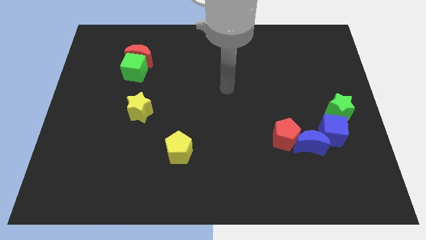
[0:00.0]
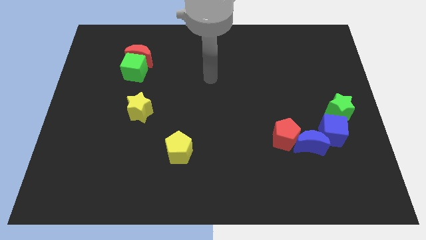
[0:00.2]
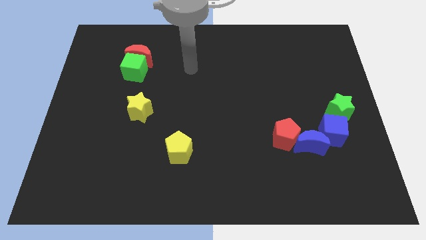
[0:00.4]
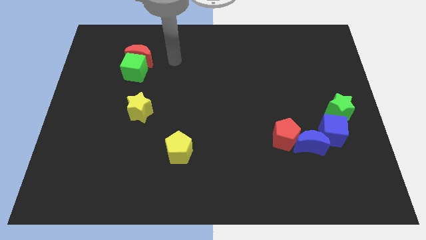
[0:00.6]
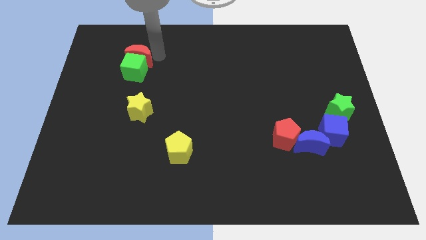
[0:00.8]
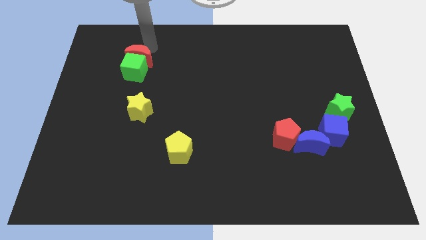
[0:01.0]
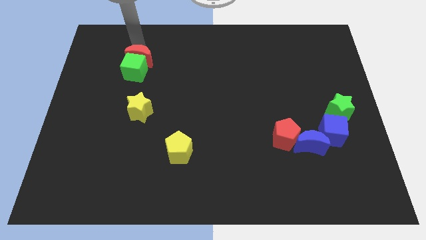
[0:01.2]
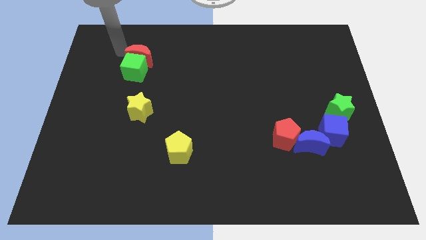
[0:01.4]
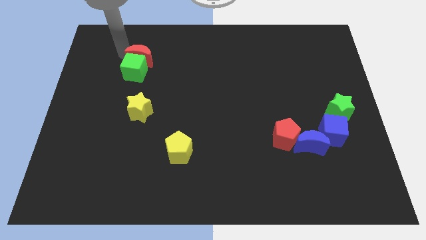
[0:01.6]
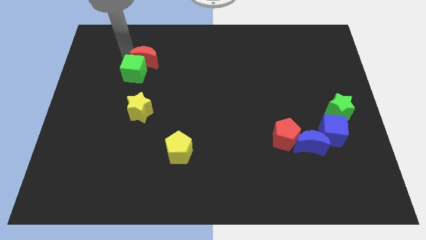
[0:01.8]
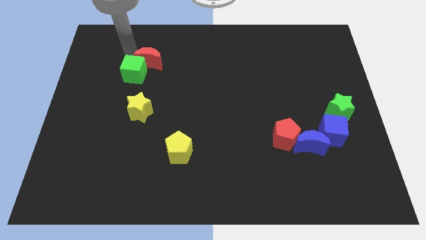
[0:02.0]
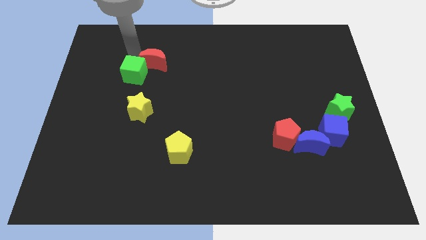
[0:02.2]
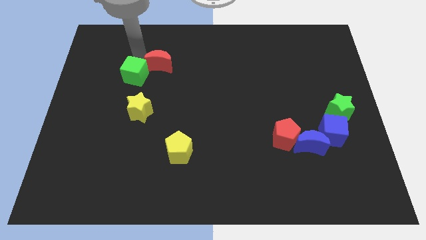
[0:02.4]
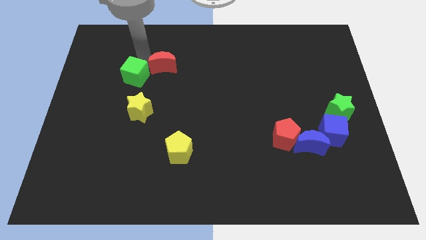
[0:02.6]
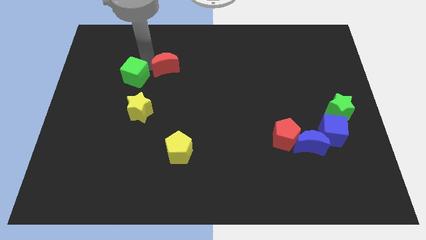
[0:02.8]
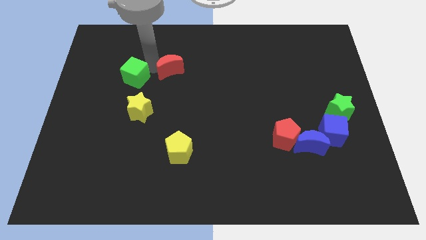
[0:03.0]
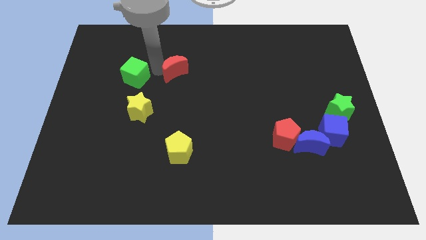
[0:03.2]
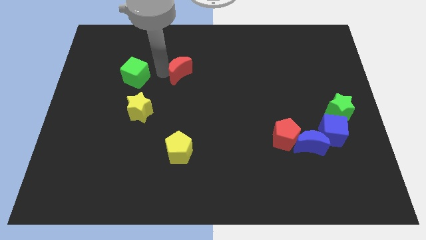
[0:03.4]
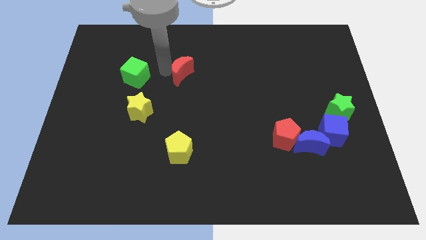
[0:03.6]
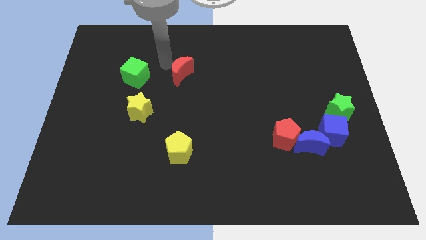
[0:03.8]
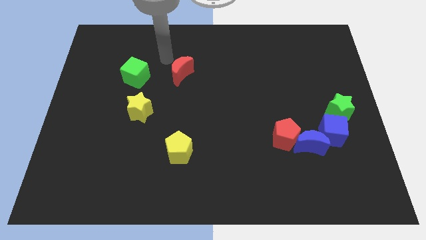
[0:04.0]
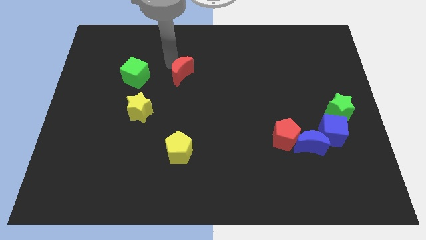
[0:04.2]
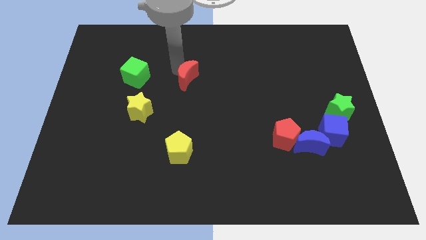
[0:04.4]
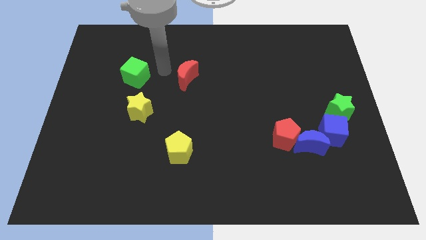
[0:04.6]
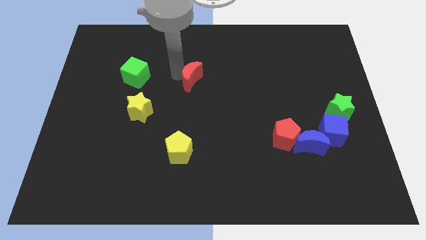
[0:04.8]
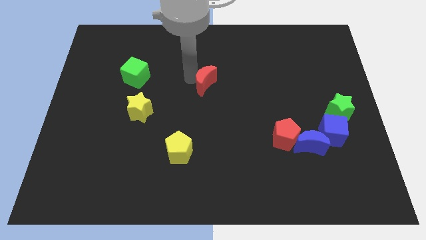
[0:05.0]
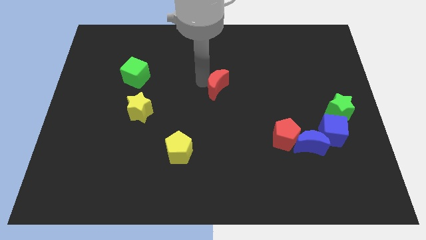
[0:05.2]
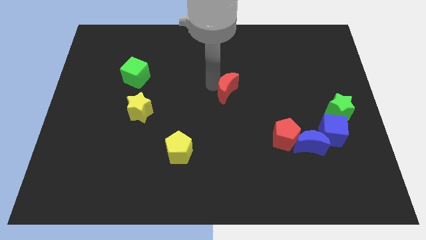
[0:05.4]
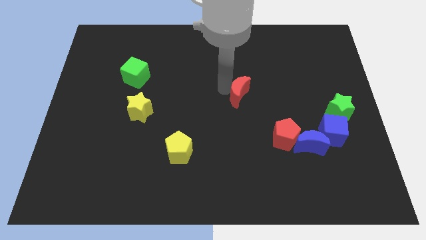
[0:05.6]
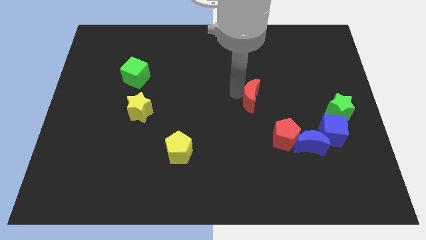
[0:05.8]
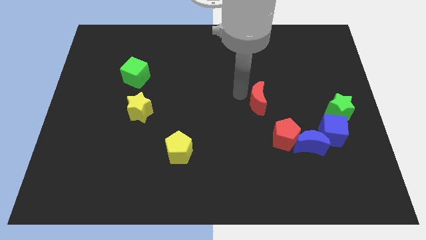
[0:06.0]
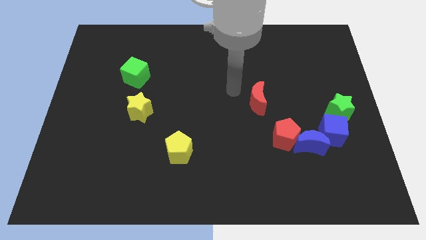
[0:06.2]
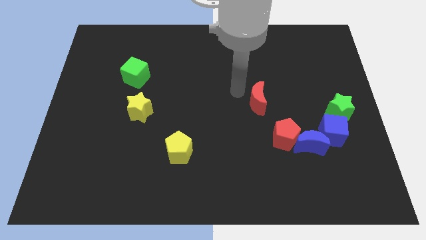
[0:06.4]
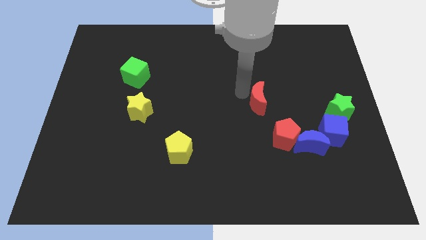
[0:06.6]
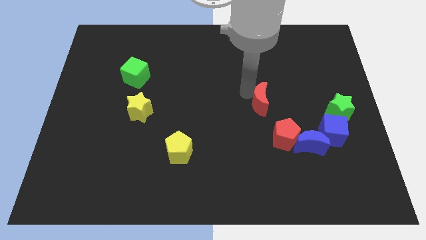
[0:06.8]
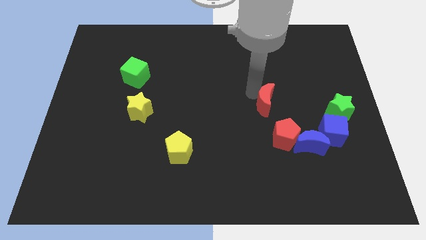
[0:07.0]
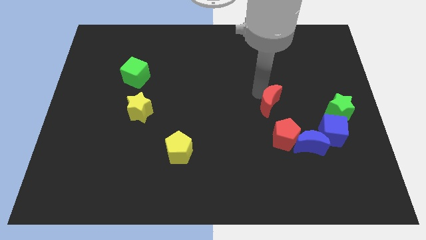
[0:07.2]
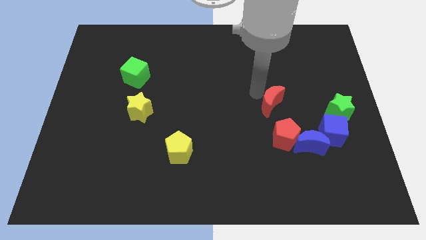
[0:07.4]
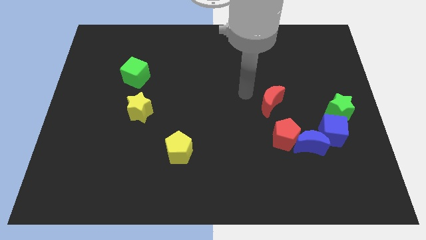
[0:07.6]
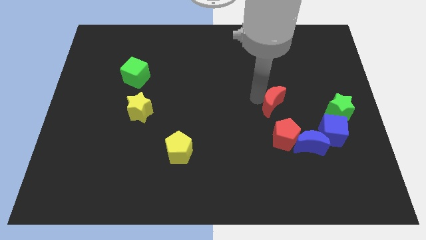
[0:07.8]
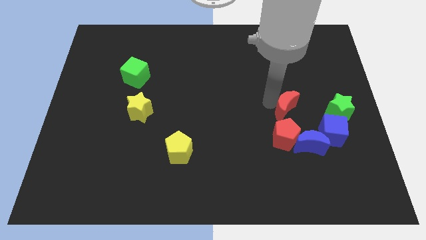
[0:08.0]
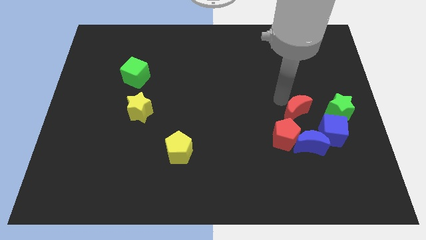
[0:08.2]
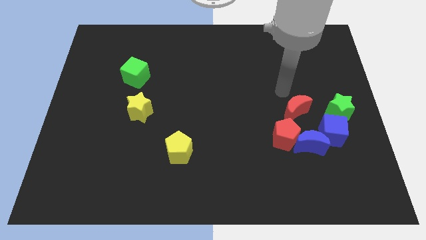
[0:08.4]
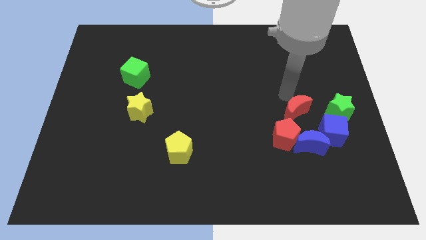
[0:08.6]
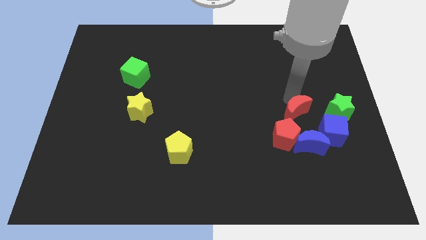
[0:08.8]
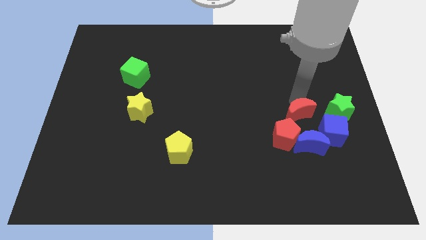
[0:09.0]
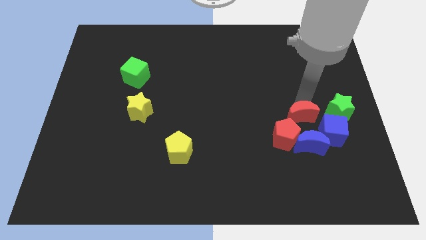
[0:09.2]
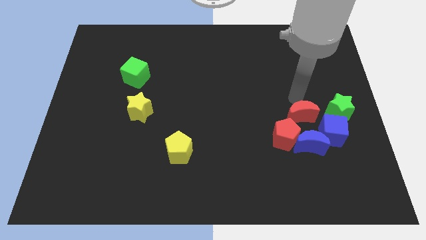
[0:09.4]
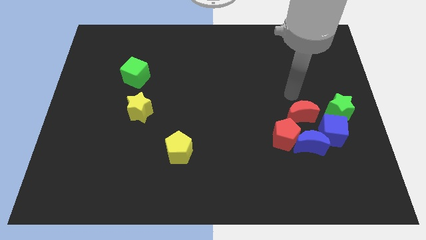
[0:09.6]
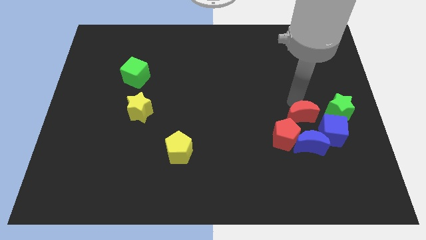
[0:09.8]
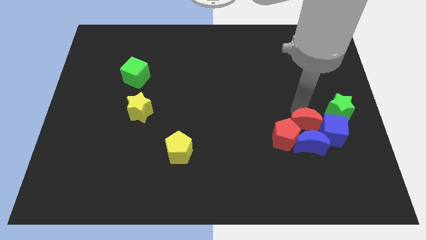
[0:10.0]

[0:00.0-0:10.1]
slide the red moon to the blue moon

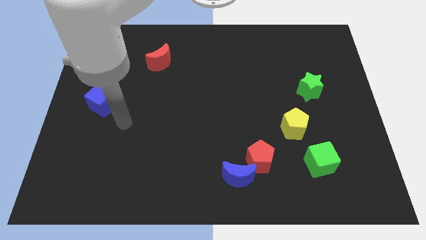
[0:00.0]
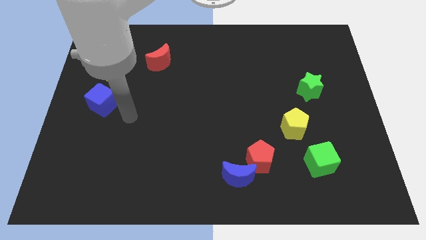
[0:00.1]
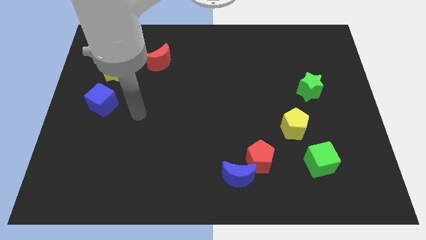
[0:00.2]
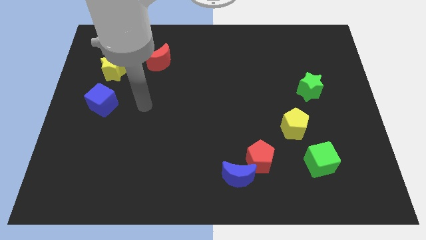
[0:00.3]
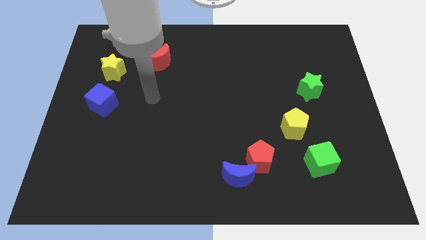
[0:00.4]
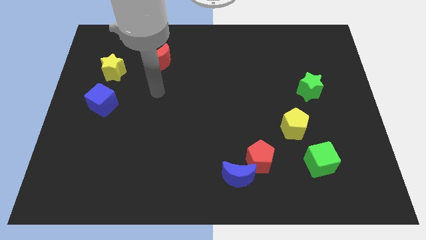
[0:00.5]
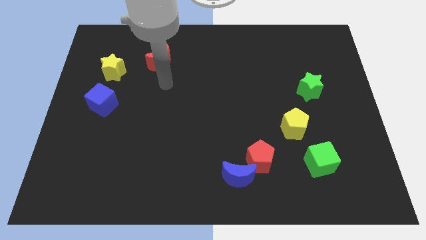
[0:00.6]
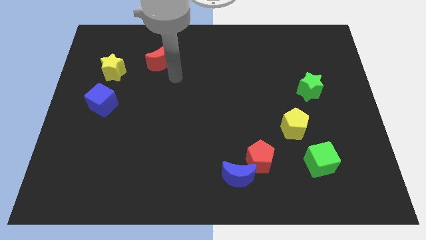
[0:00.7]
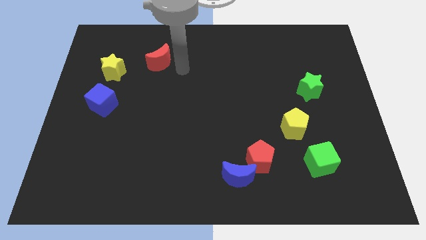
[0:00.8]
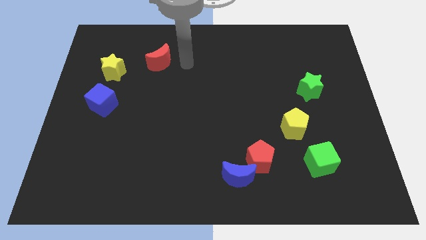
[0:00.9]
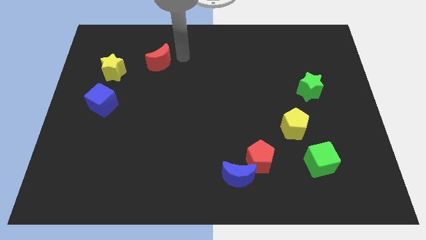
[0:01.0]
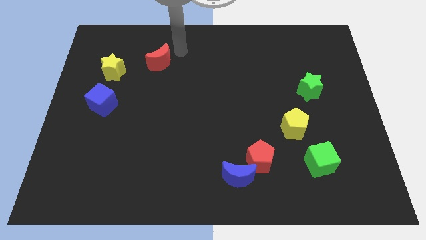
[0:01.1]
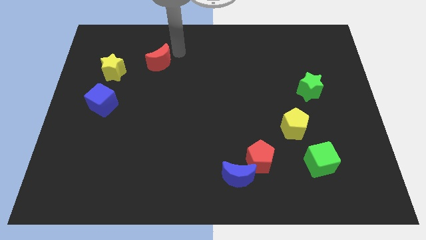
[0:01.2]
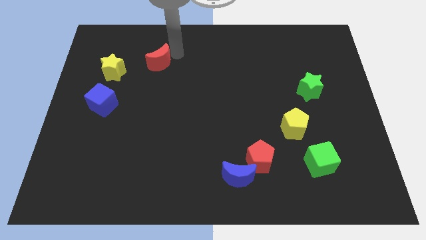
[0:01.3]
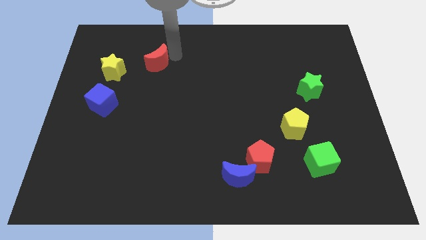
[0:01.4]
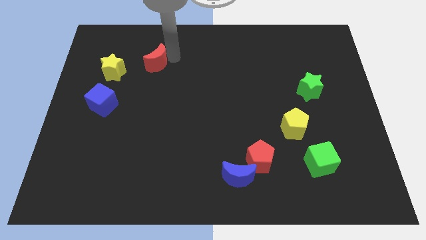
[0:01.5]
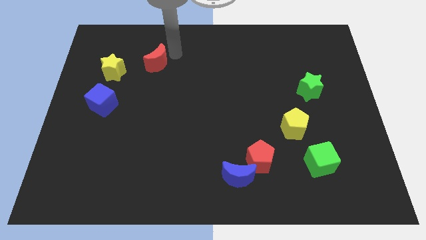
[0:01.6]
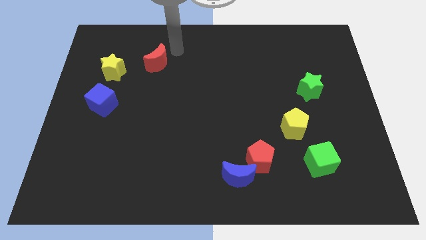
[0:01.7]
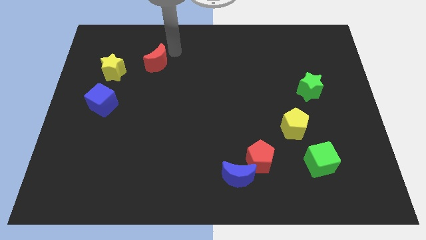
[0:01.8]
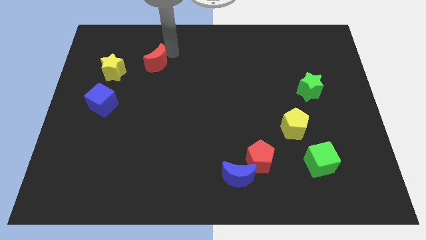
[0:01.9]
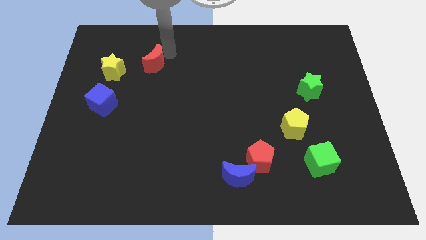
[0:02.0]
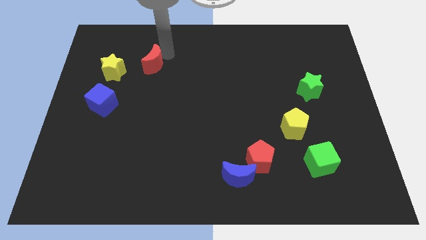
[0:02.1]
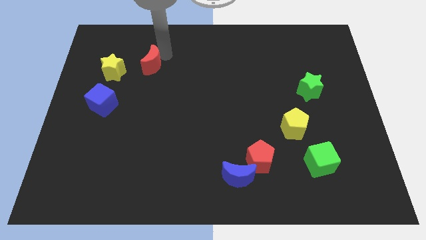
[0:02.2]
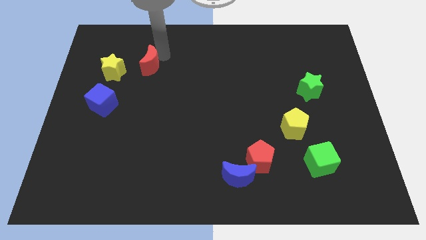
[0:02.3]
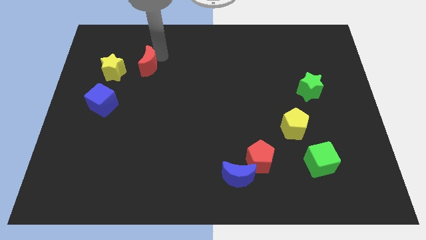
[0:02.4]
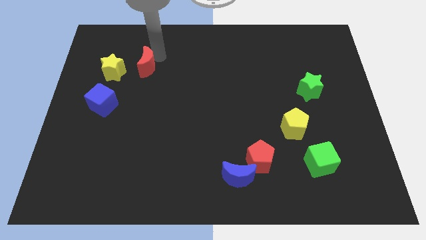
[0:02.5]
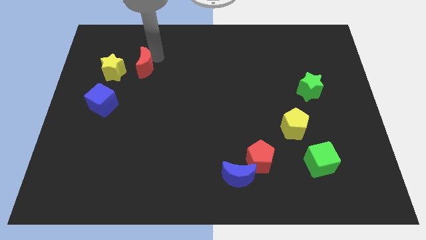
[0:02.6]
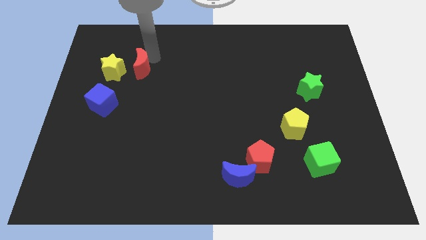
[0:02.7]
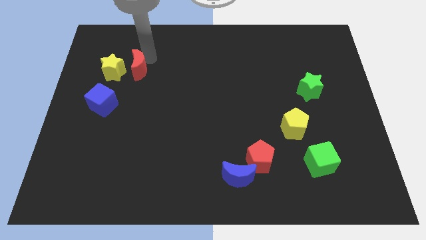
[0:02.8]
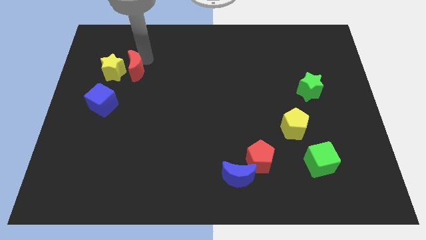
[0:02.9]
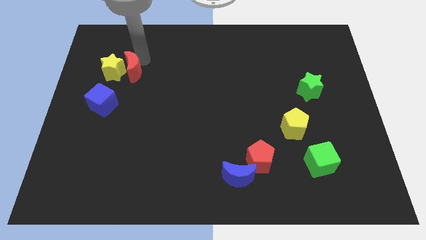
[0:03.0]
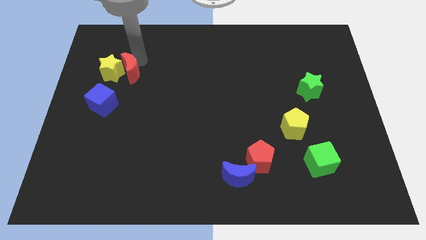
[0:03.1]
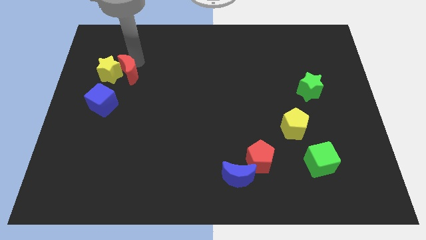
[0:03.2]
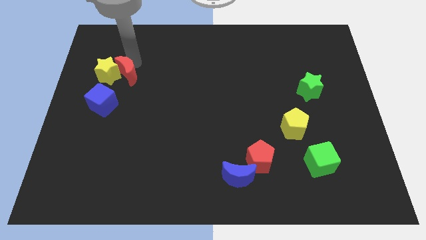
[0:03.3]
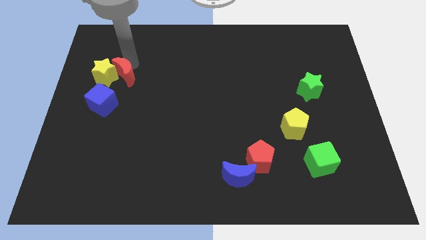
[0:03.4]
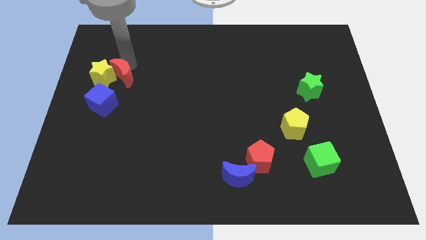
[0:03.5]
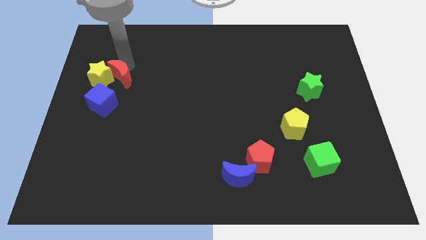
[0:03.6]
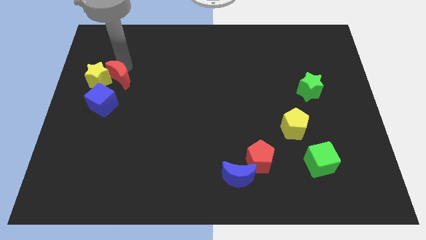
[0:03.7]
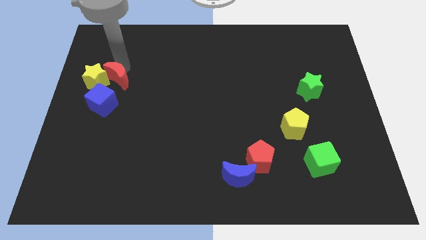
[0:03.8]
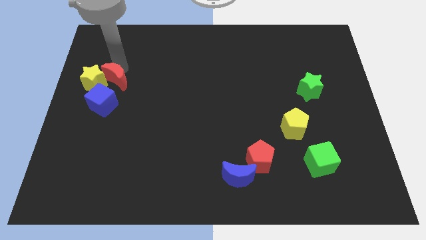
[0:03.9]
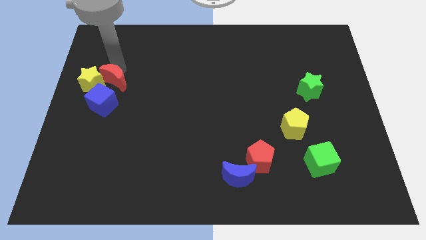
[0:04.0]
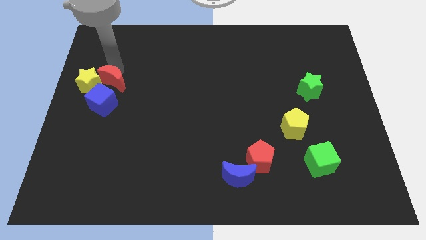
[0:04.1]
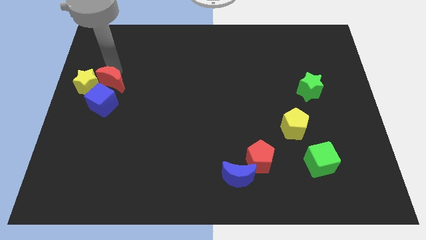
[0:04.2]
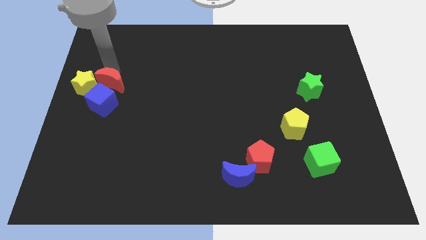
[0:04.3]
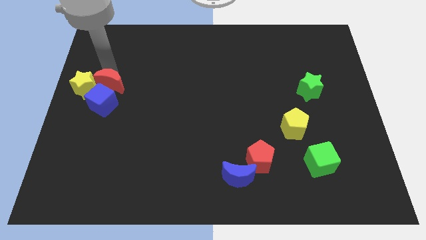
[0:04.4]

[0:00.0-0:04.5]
slide the red moon towards the blue cube
